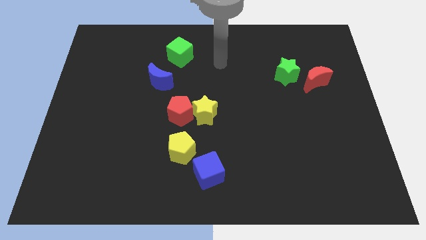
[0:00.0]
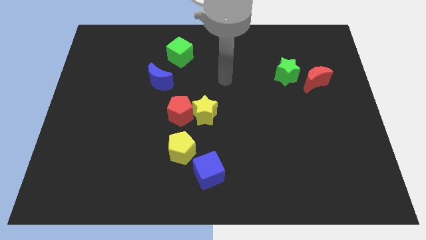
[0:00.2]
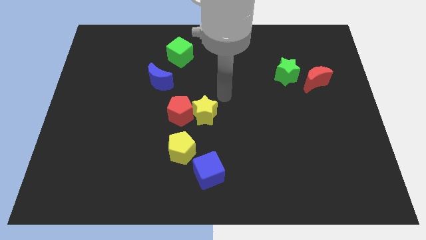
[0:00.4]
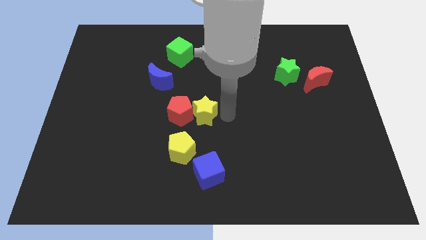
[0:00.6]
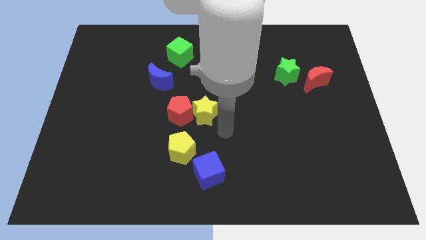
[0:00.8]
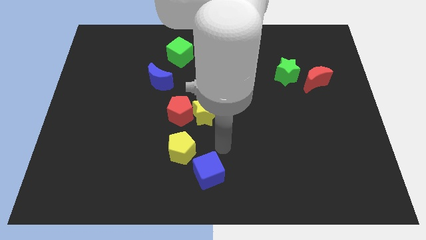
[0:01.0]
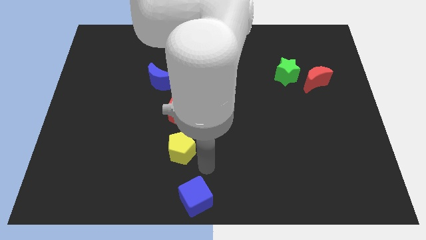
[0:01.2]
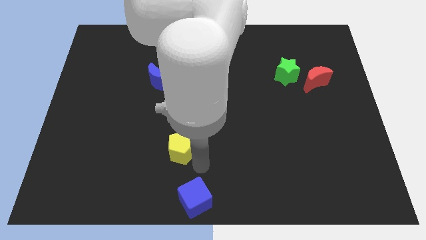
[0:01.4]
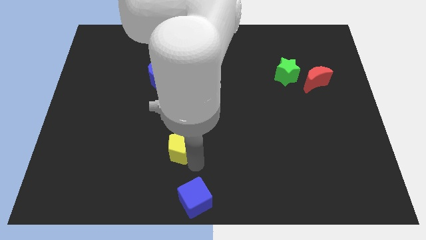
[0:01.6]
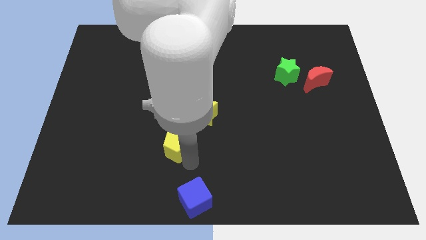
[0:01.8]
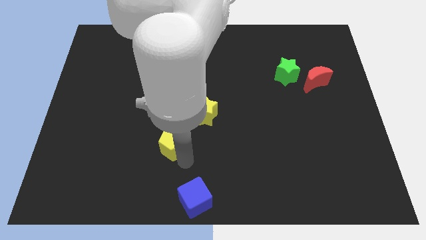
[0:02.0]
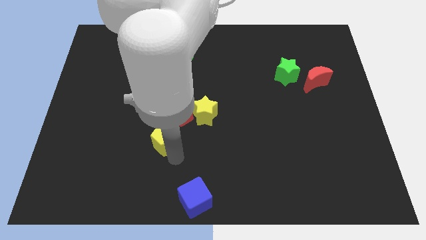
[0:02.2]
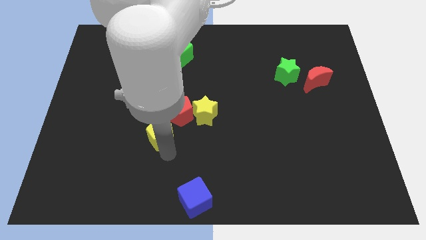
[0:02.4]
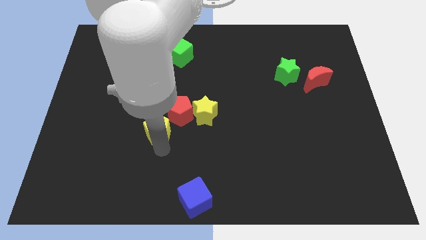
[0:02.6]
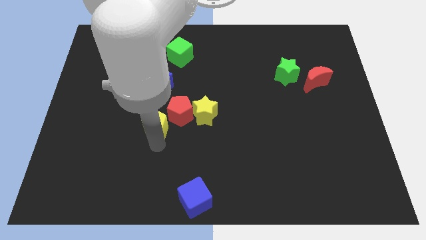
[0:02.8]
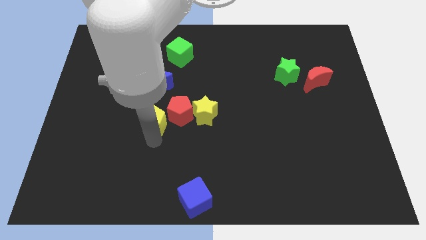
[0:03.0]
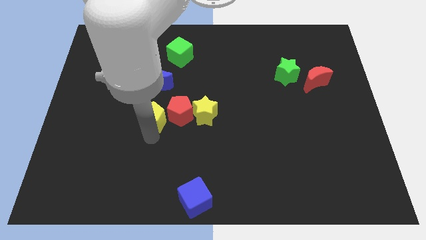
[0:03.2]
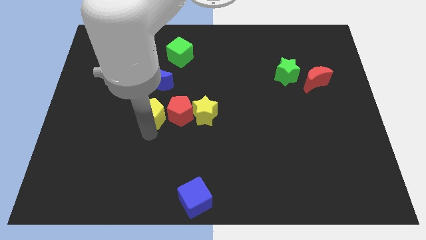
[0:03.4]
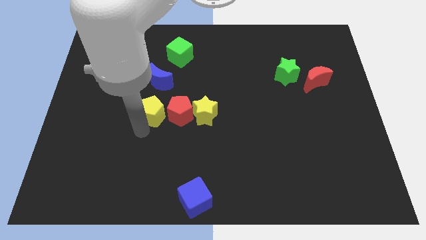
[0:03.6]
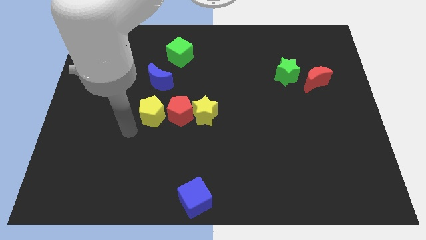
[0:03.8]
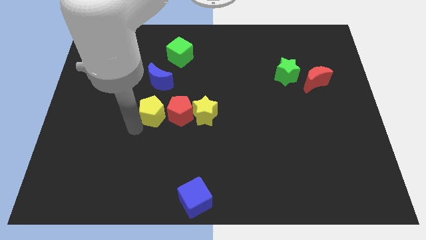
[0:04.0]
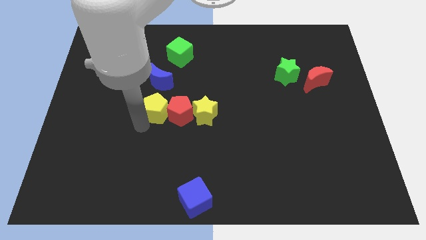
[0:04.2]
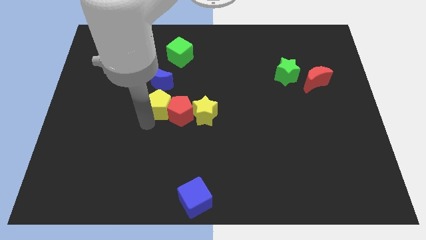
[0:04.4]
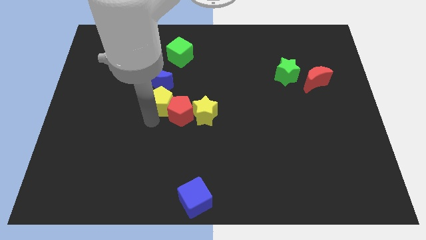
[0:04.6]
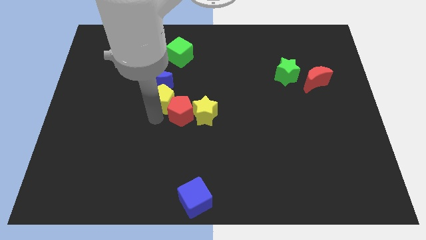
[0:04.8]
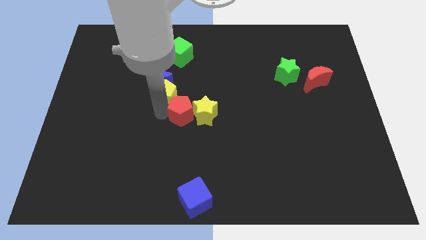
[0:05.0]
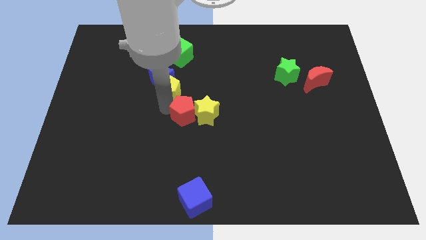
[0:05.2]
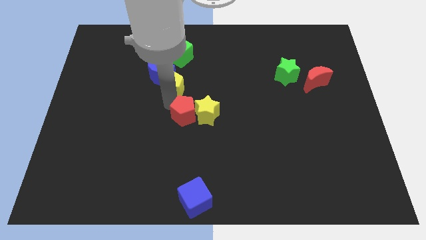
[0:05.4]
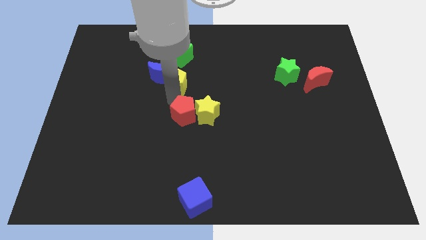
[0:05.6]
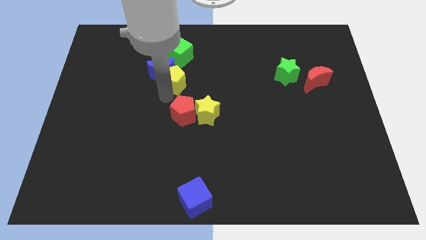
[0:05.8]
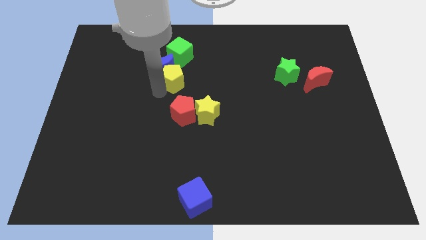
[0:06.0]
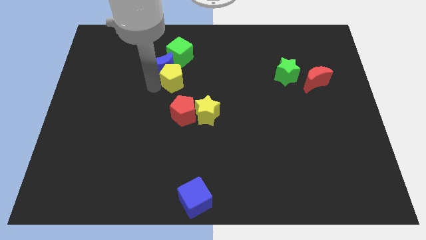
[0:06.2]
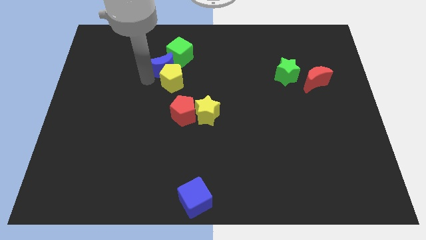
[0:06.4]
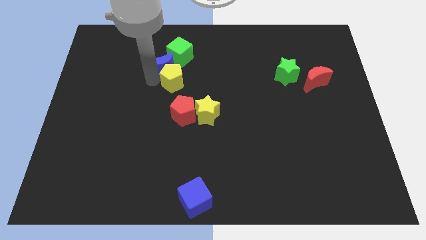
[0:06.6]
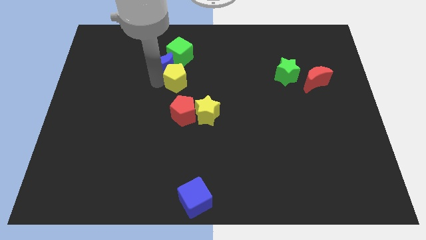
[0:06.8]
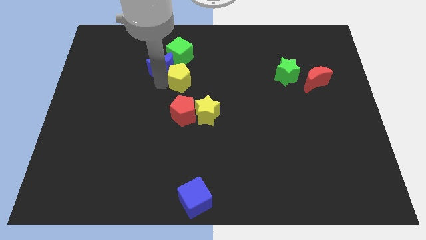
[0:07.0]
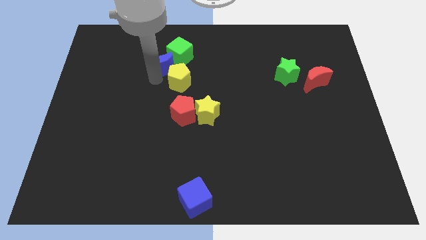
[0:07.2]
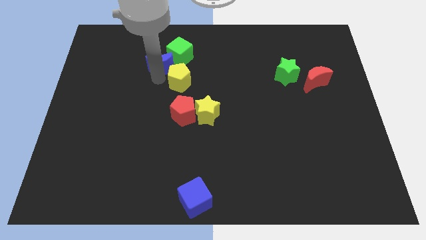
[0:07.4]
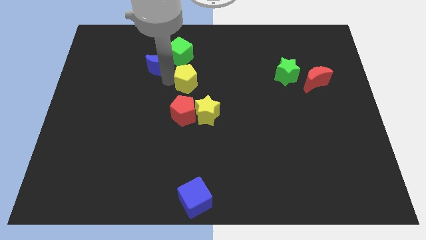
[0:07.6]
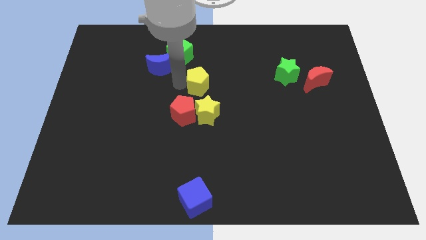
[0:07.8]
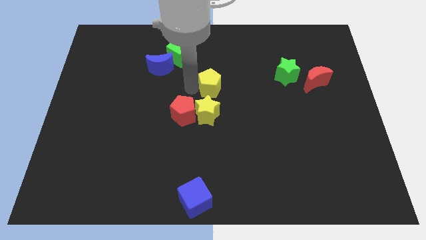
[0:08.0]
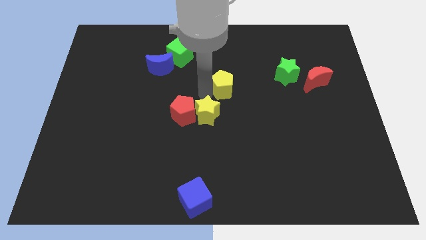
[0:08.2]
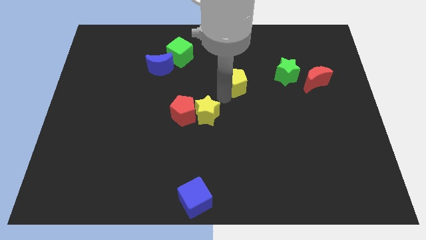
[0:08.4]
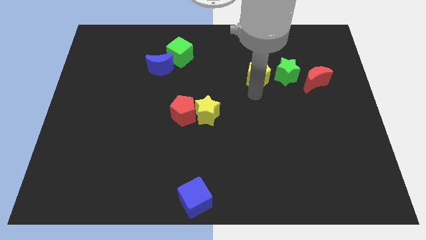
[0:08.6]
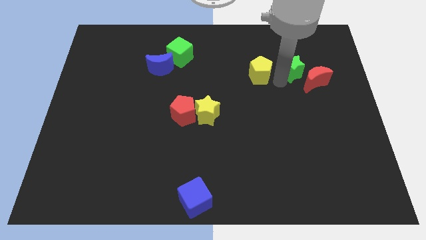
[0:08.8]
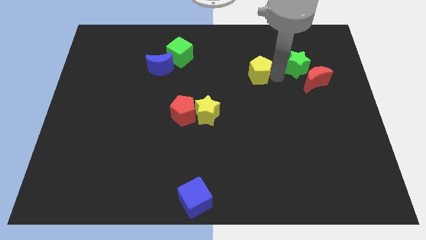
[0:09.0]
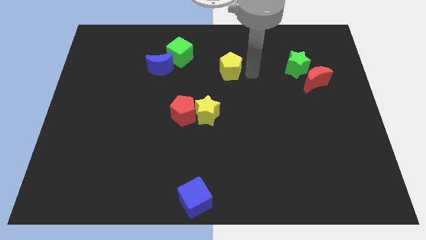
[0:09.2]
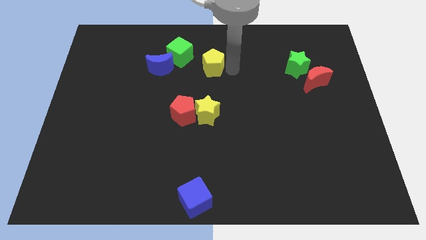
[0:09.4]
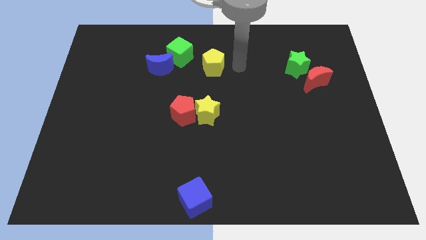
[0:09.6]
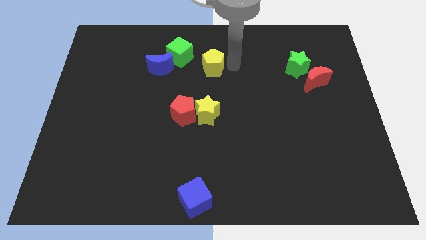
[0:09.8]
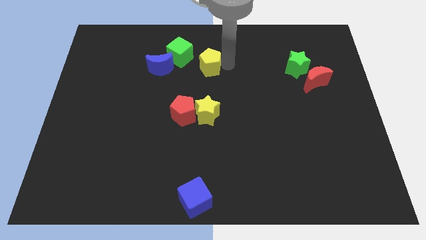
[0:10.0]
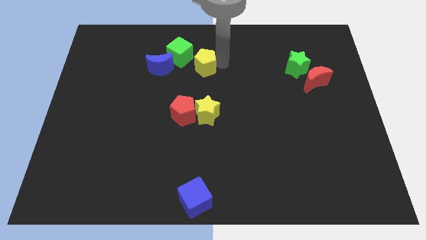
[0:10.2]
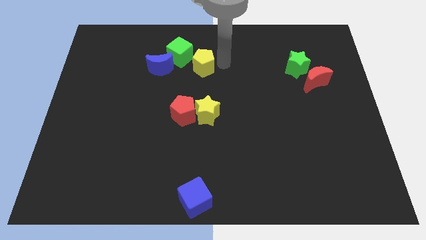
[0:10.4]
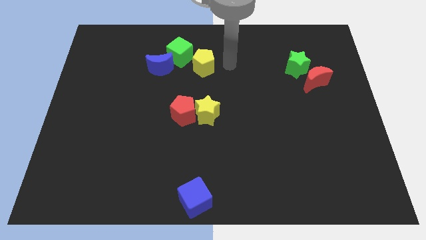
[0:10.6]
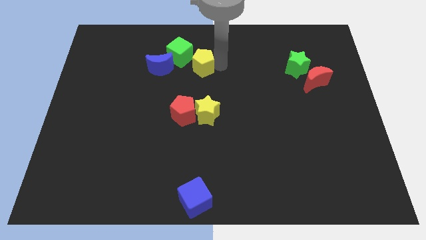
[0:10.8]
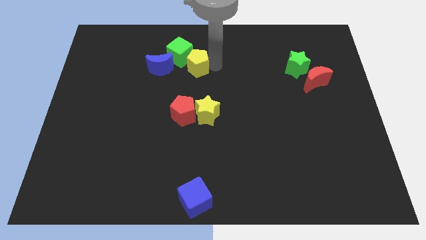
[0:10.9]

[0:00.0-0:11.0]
put the yellow pentagon towards the green cube

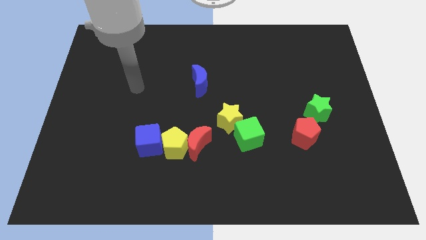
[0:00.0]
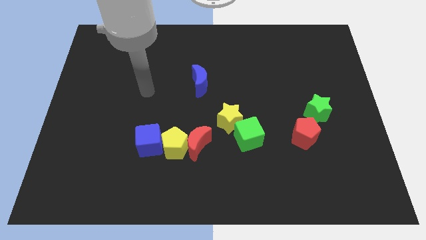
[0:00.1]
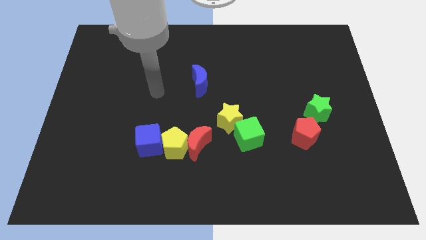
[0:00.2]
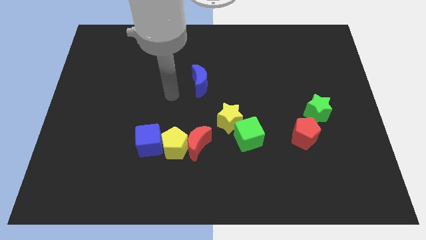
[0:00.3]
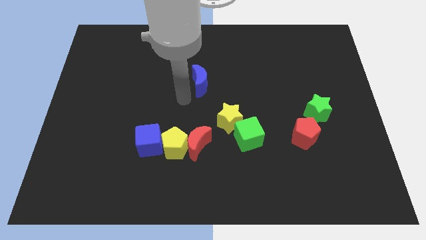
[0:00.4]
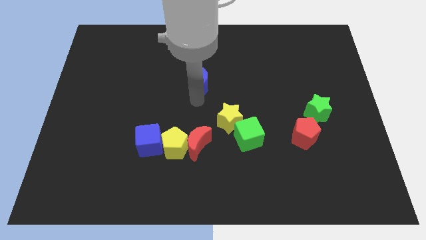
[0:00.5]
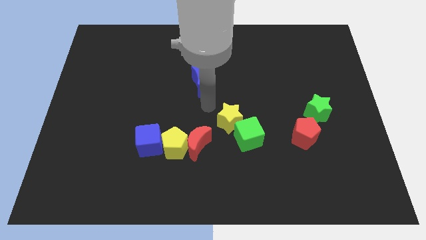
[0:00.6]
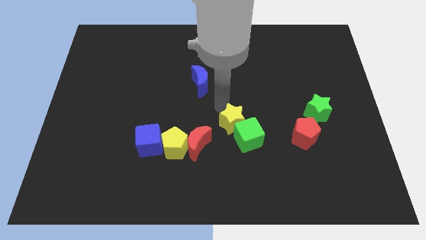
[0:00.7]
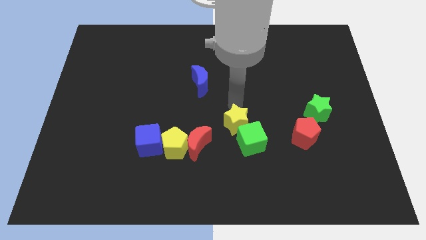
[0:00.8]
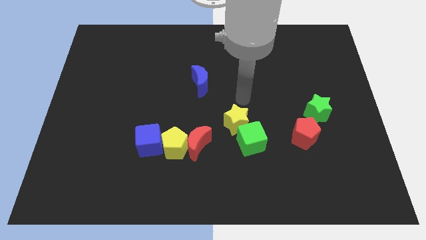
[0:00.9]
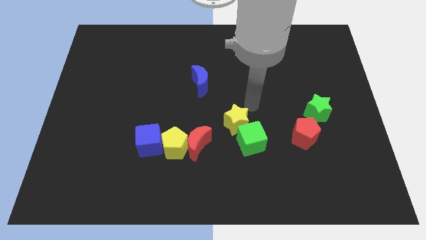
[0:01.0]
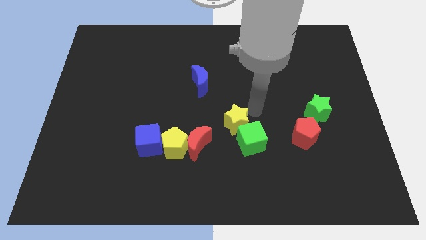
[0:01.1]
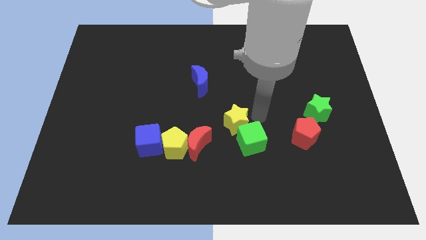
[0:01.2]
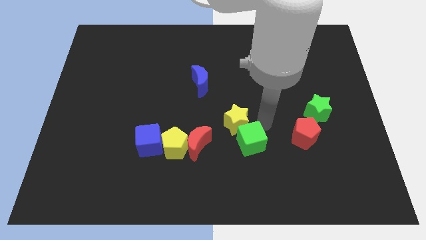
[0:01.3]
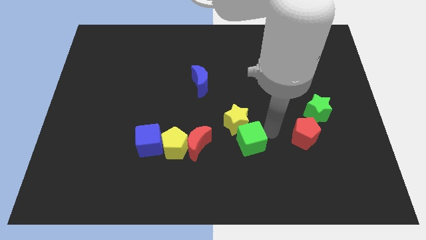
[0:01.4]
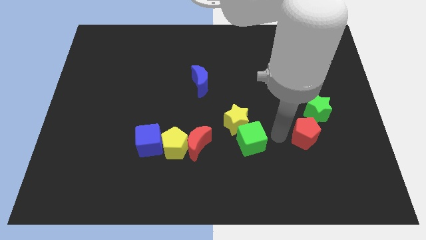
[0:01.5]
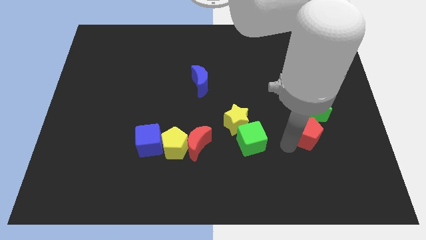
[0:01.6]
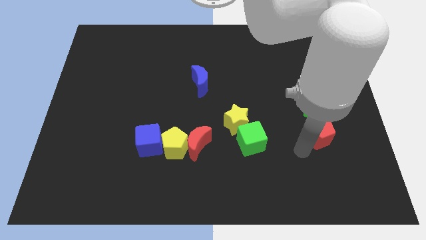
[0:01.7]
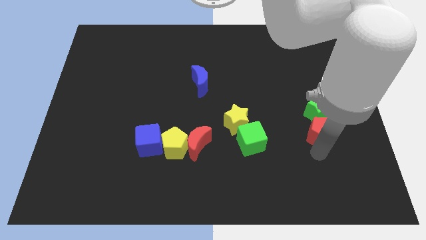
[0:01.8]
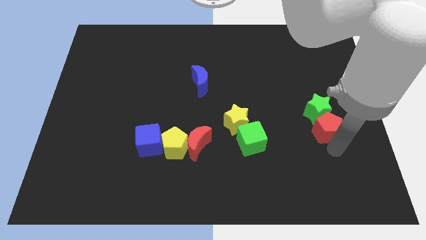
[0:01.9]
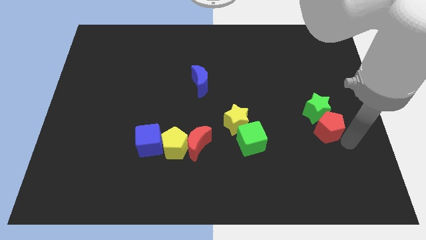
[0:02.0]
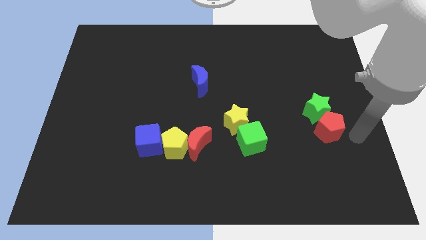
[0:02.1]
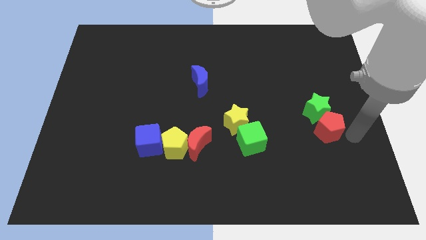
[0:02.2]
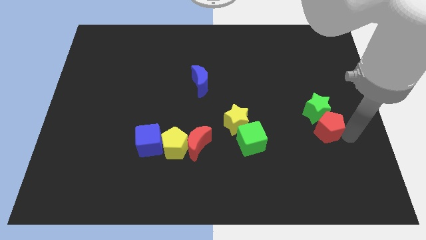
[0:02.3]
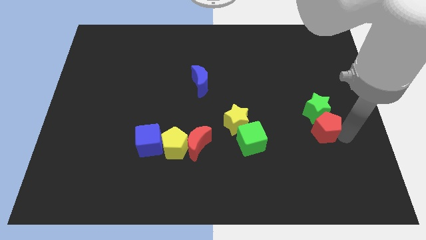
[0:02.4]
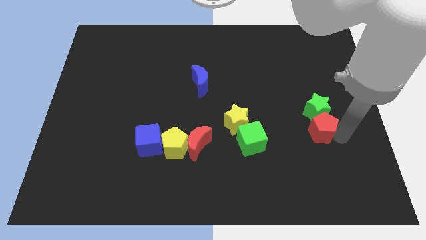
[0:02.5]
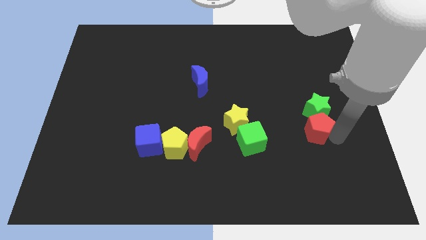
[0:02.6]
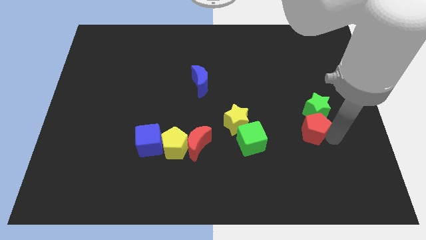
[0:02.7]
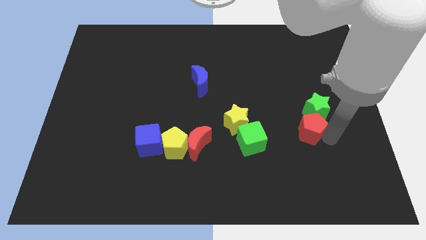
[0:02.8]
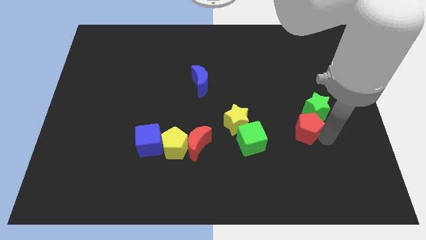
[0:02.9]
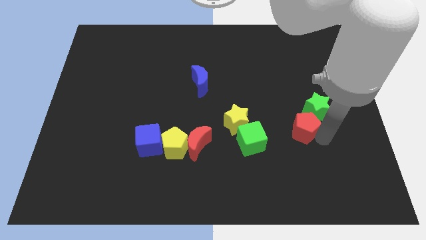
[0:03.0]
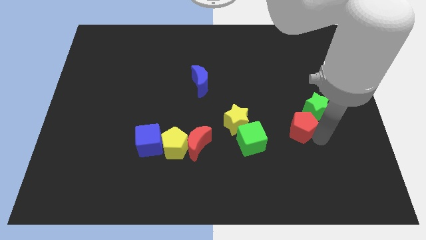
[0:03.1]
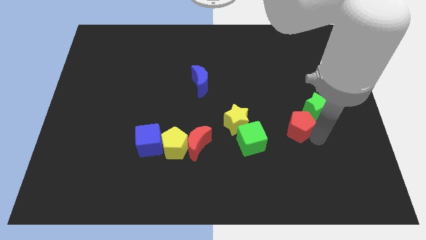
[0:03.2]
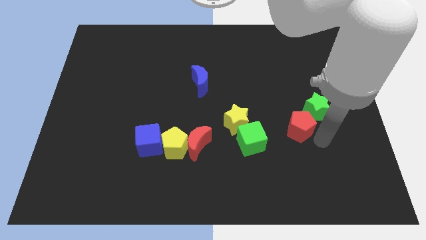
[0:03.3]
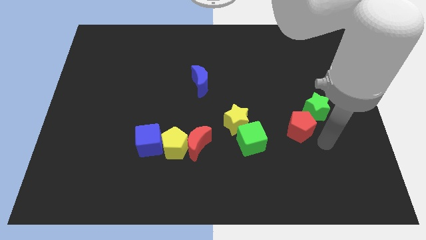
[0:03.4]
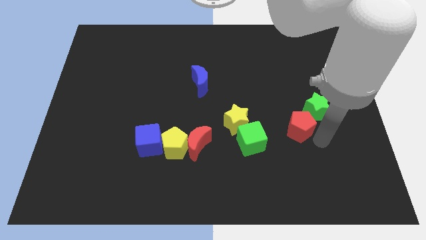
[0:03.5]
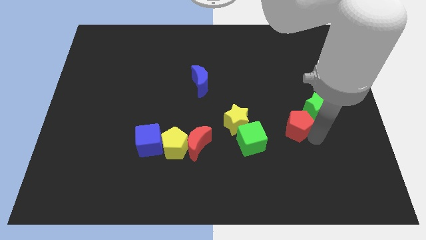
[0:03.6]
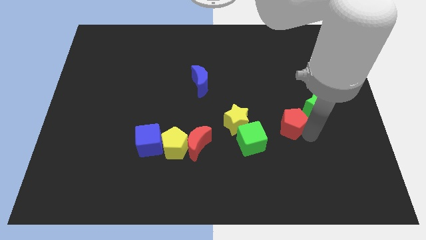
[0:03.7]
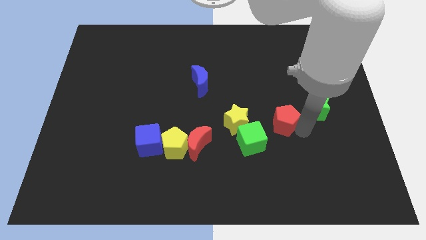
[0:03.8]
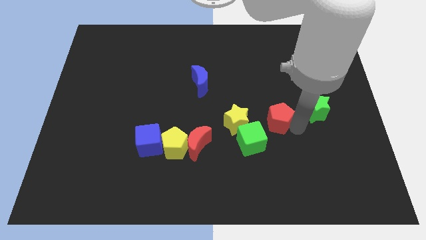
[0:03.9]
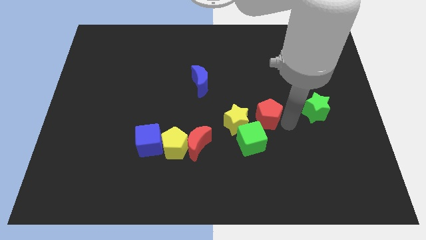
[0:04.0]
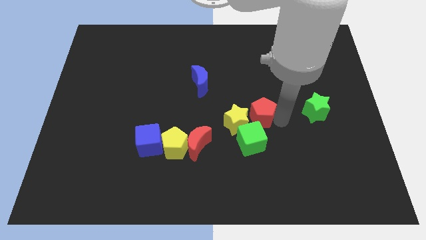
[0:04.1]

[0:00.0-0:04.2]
push the red pentagon close to the yellow star
